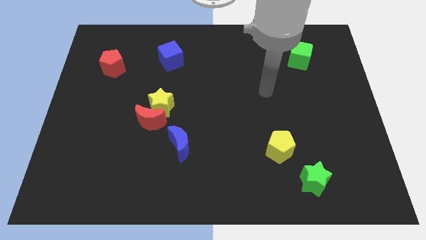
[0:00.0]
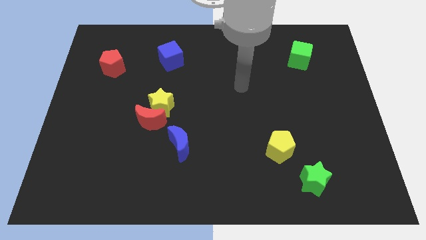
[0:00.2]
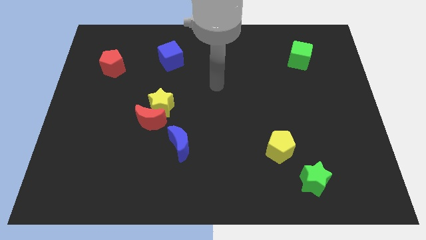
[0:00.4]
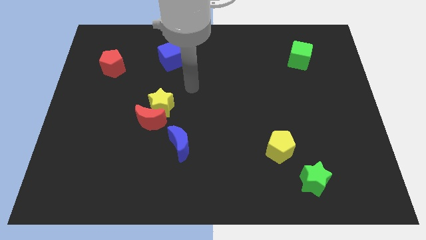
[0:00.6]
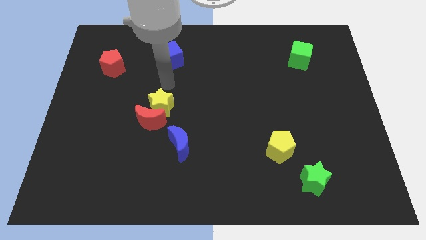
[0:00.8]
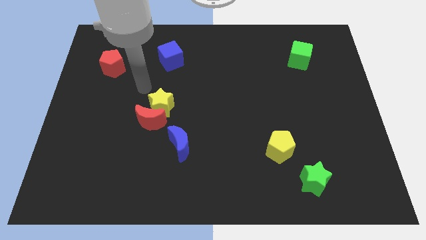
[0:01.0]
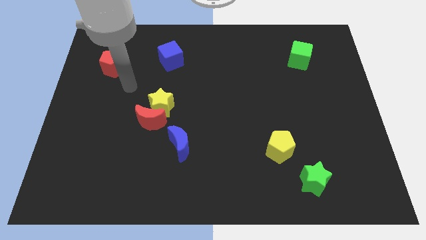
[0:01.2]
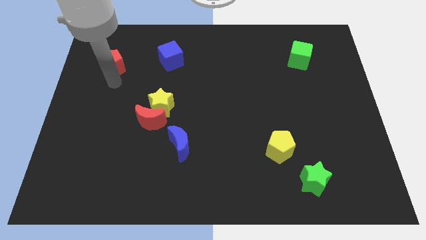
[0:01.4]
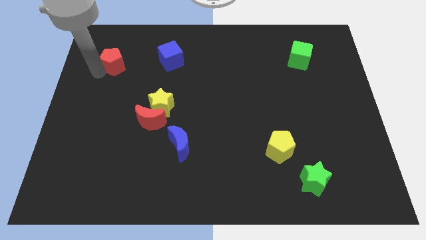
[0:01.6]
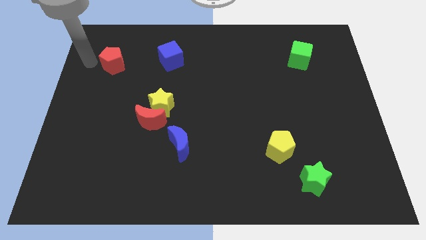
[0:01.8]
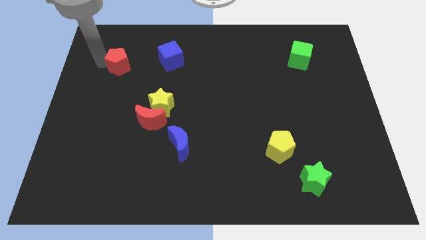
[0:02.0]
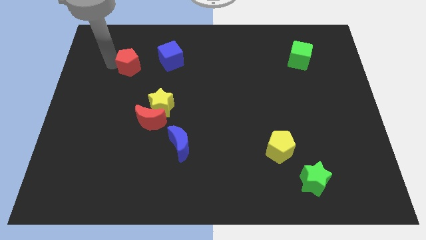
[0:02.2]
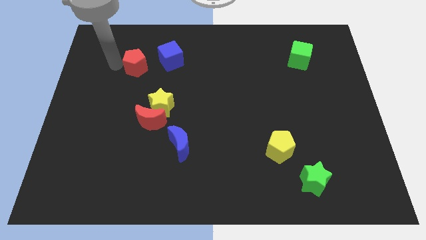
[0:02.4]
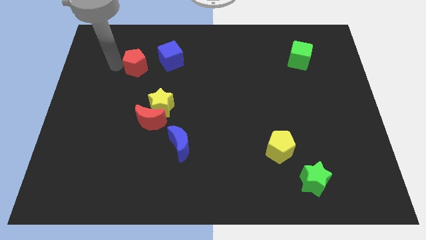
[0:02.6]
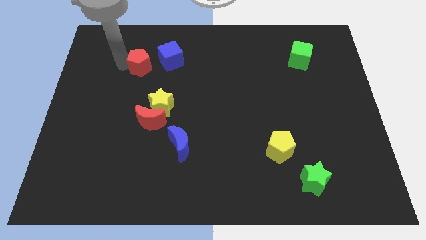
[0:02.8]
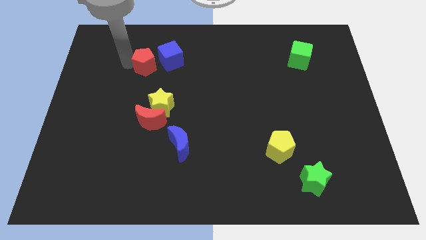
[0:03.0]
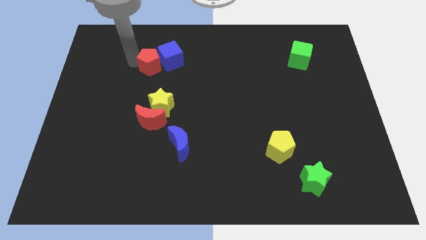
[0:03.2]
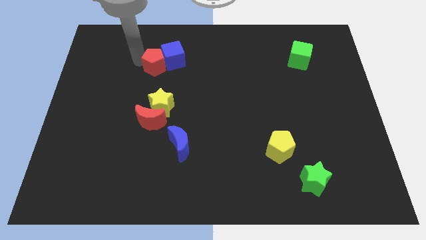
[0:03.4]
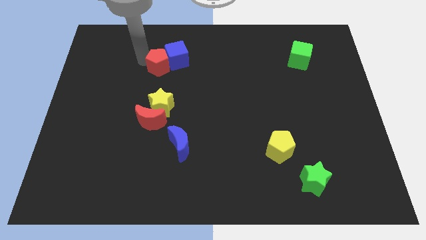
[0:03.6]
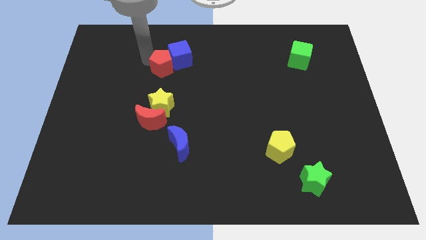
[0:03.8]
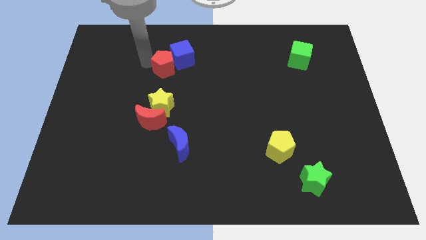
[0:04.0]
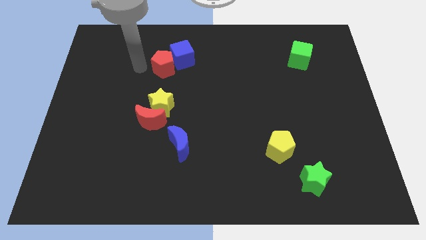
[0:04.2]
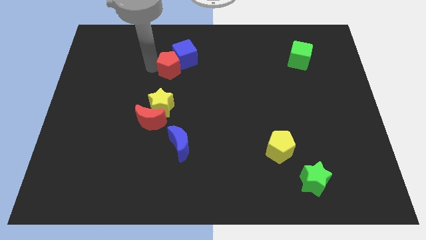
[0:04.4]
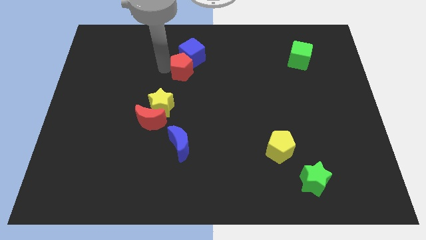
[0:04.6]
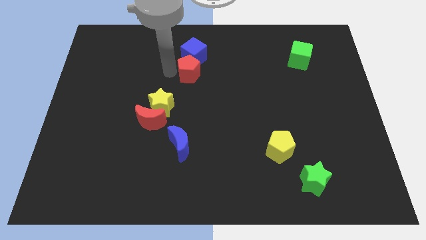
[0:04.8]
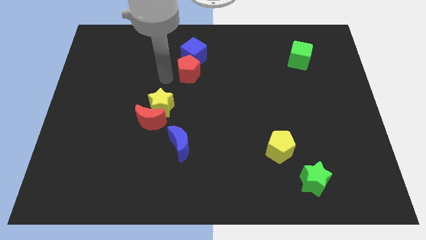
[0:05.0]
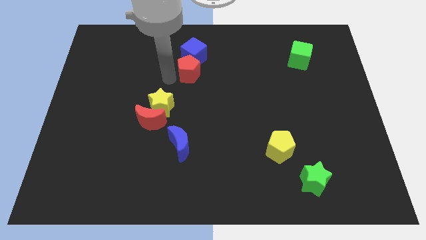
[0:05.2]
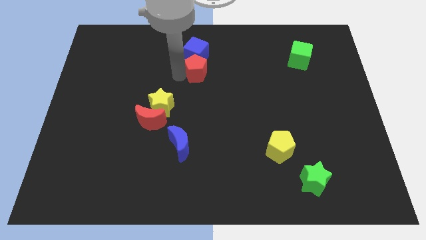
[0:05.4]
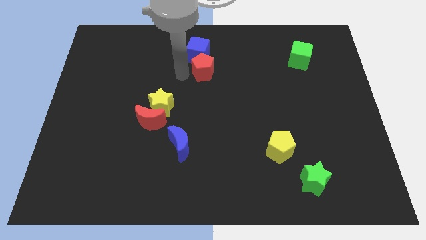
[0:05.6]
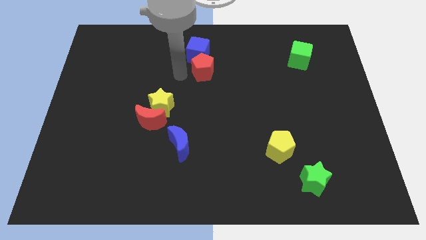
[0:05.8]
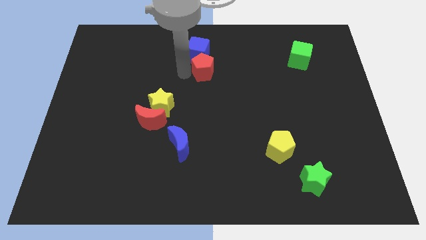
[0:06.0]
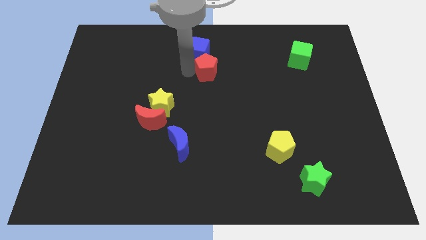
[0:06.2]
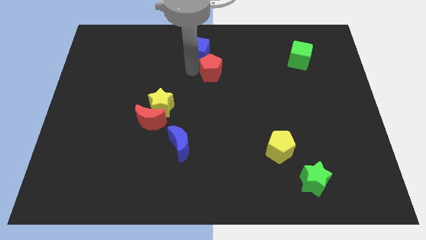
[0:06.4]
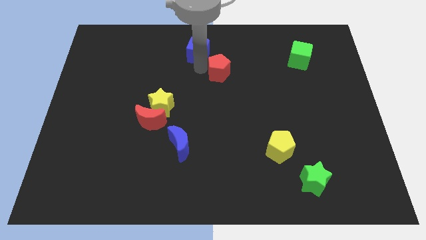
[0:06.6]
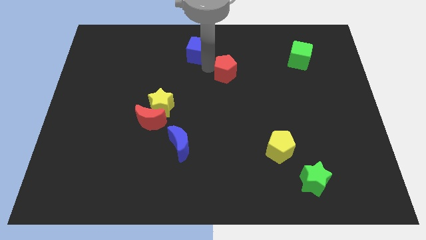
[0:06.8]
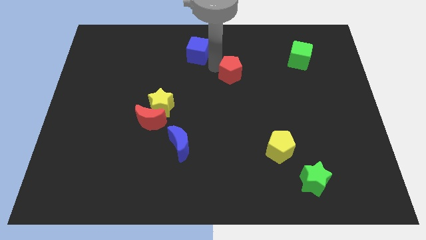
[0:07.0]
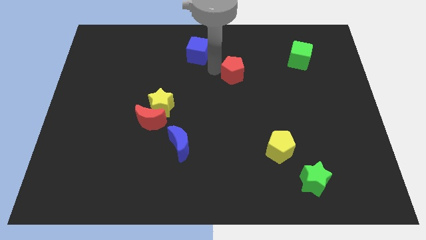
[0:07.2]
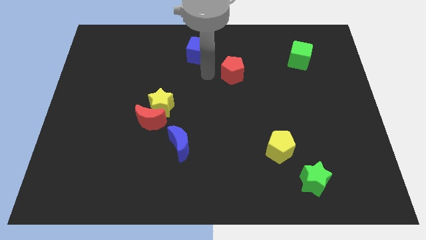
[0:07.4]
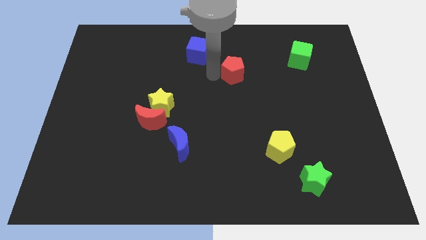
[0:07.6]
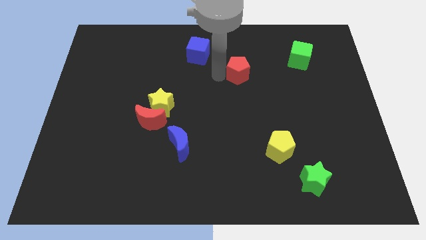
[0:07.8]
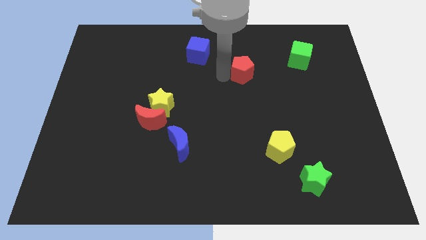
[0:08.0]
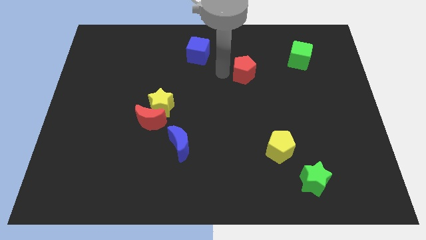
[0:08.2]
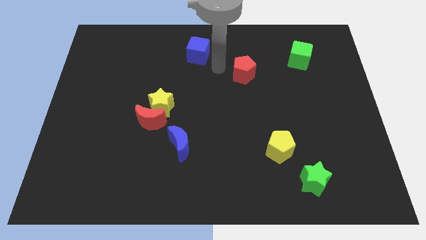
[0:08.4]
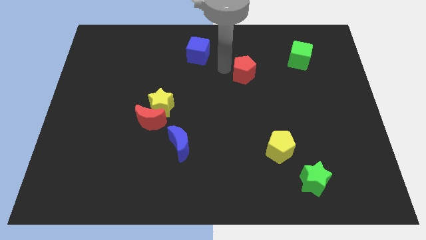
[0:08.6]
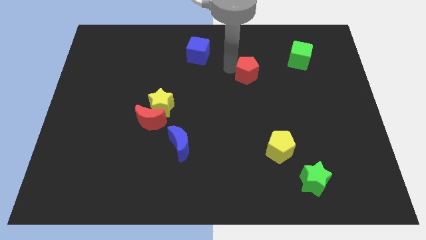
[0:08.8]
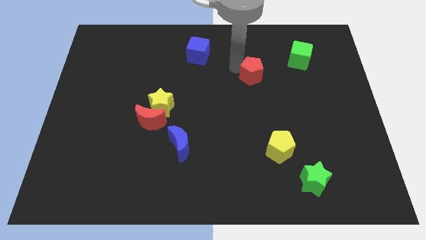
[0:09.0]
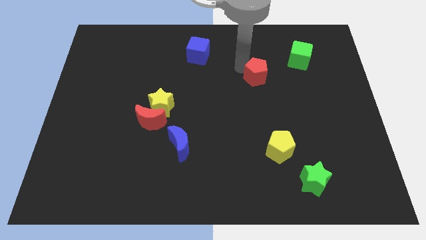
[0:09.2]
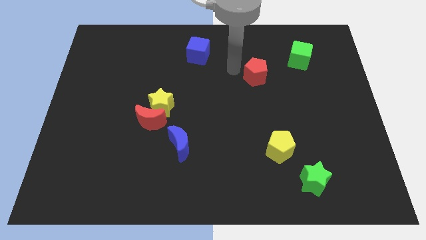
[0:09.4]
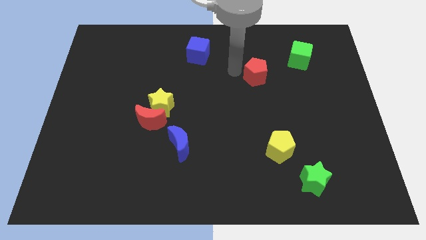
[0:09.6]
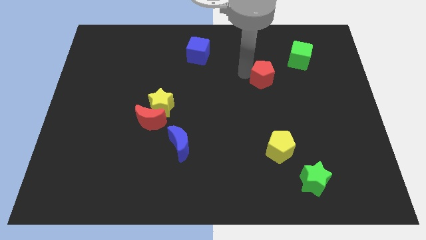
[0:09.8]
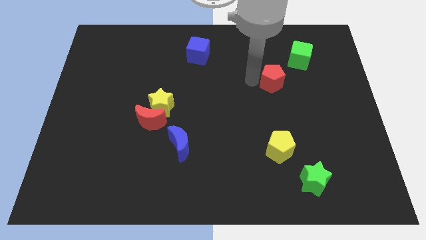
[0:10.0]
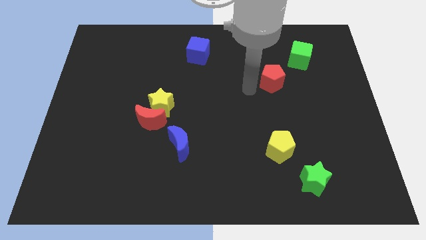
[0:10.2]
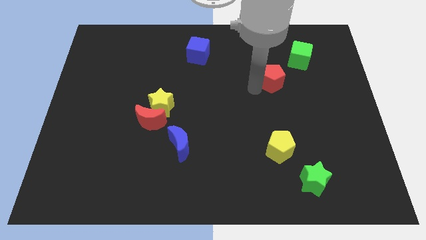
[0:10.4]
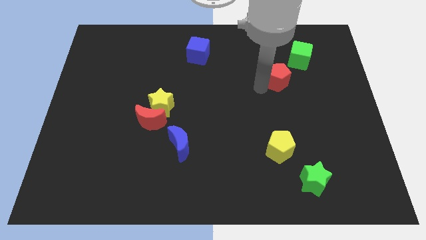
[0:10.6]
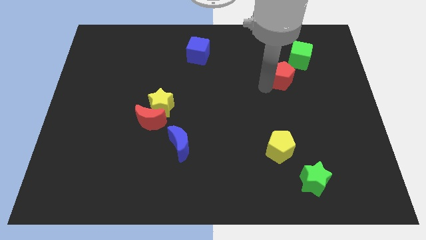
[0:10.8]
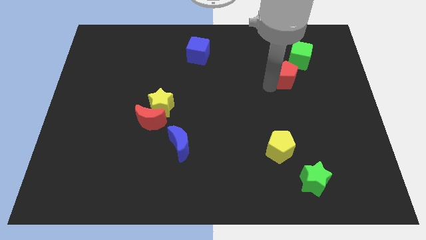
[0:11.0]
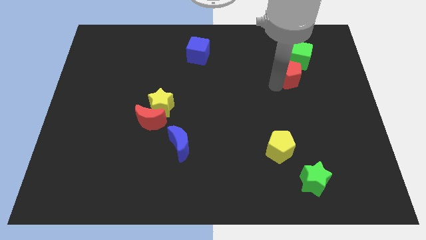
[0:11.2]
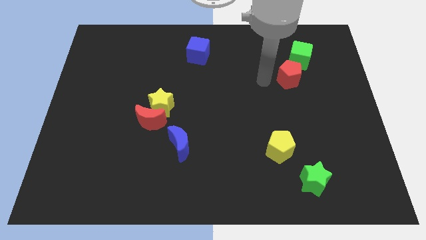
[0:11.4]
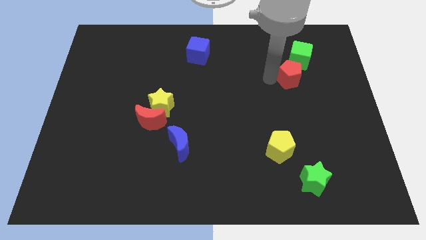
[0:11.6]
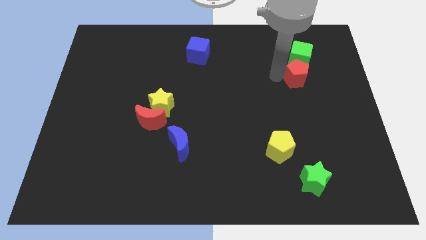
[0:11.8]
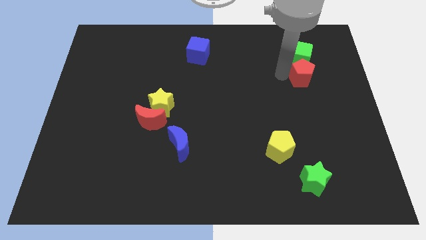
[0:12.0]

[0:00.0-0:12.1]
push the red pentagon diagonally down and to the right of the green cube

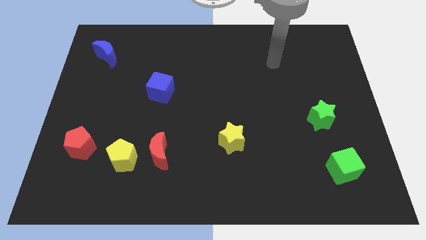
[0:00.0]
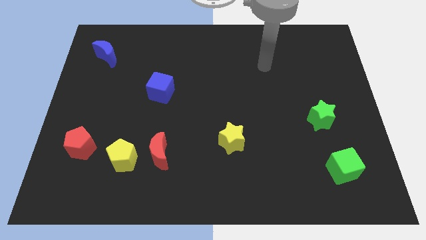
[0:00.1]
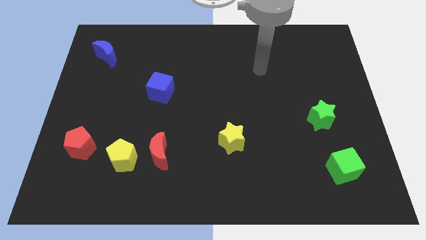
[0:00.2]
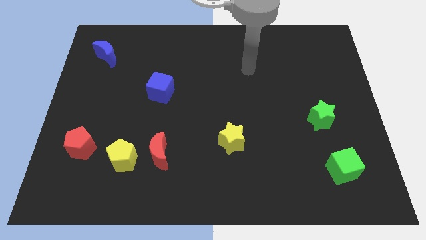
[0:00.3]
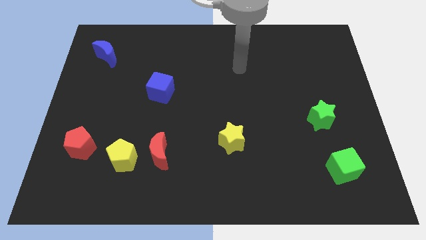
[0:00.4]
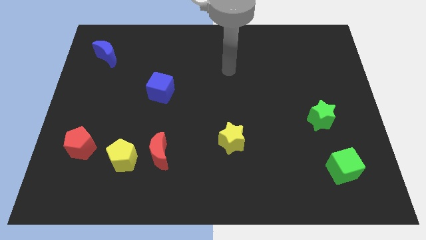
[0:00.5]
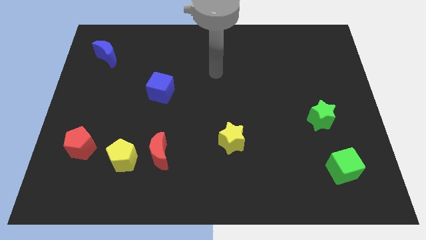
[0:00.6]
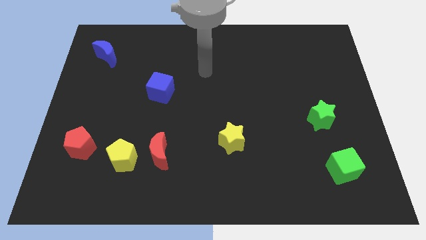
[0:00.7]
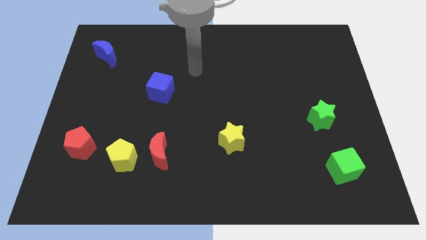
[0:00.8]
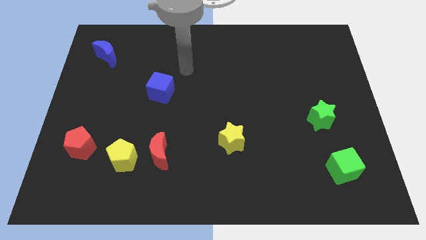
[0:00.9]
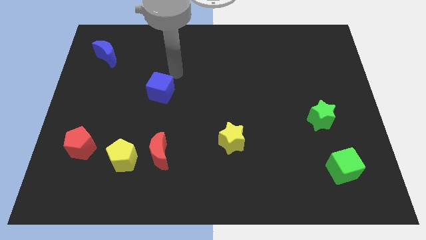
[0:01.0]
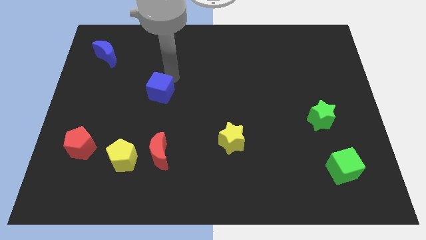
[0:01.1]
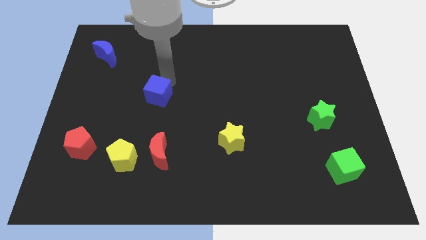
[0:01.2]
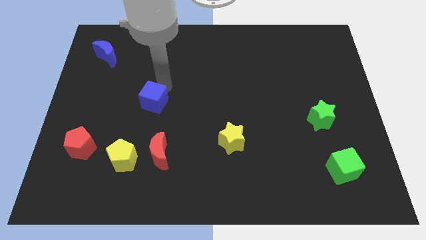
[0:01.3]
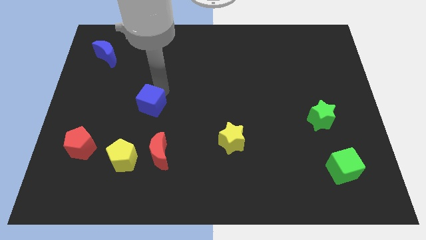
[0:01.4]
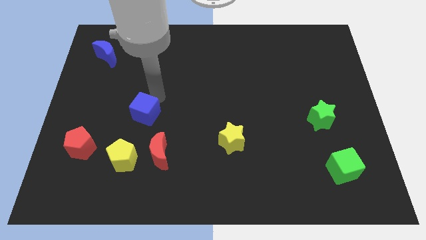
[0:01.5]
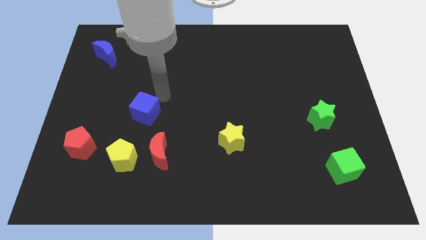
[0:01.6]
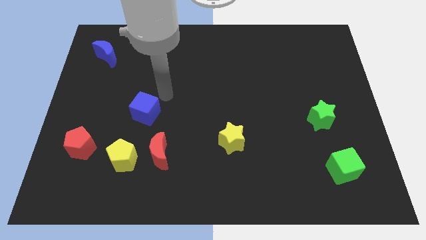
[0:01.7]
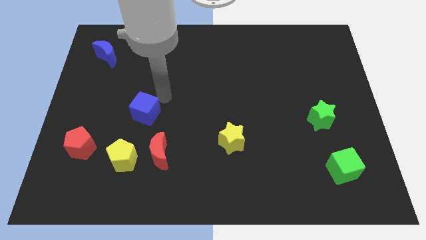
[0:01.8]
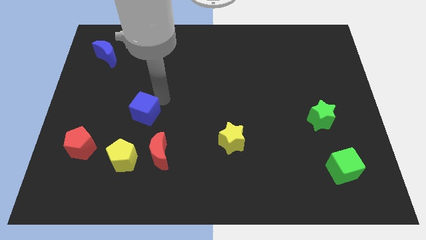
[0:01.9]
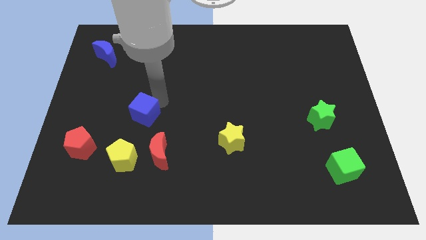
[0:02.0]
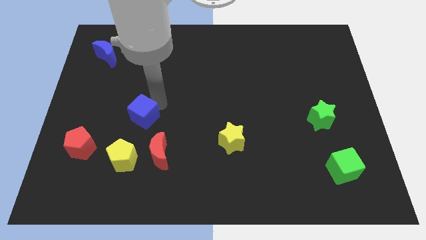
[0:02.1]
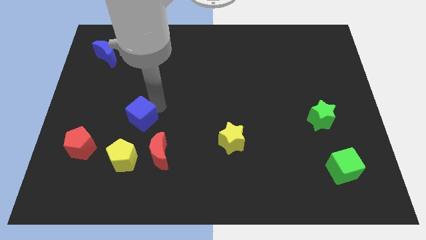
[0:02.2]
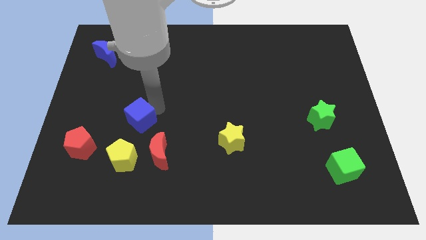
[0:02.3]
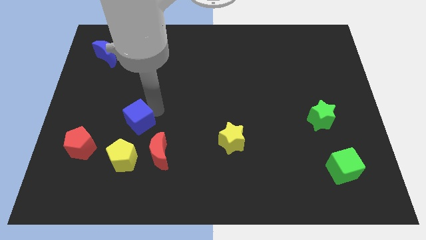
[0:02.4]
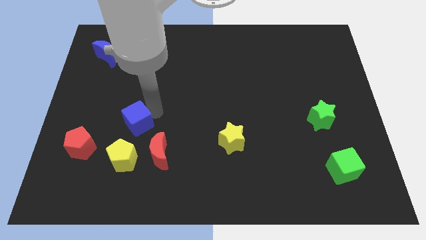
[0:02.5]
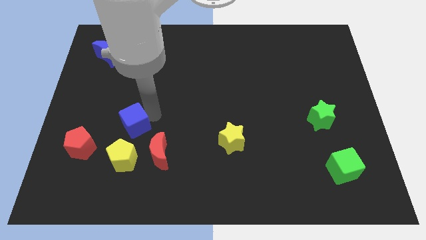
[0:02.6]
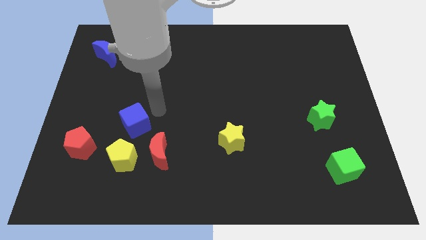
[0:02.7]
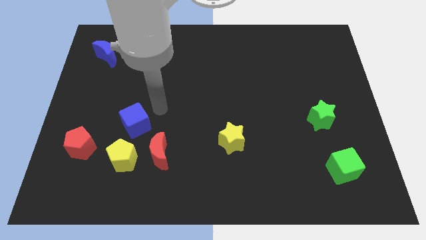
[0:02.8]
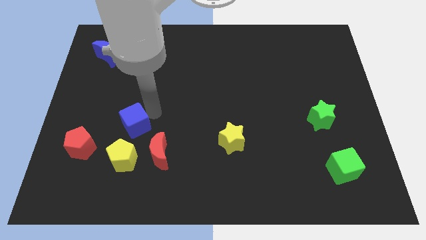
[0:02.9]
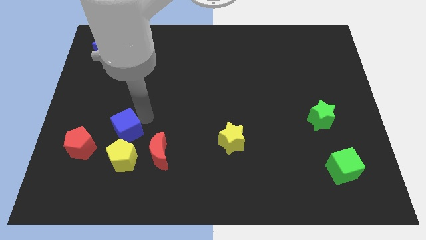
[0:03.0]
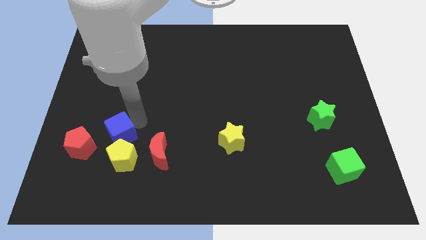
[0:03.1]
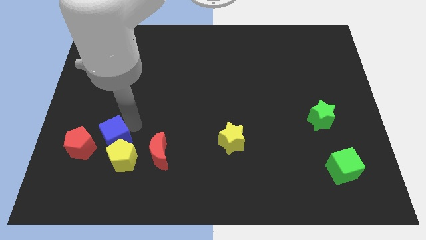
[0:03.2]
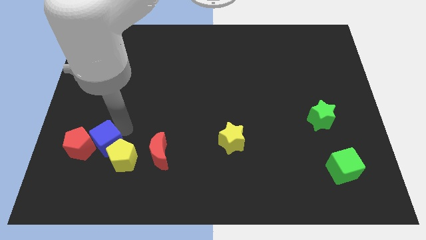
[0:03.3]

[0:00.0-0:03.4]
slide the blue cube diagonally down and to the right of the red pentagon
